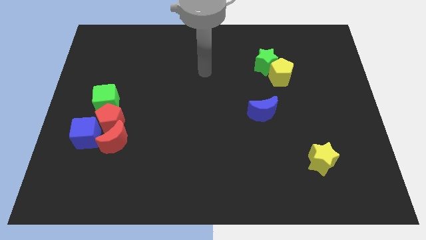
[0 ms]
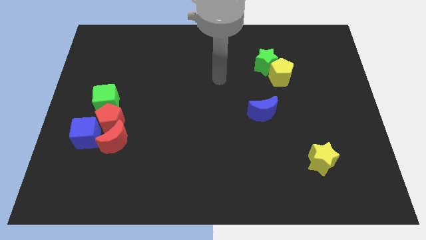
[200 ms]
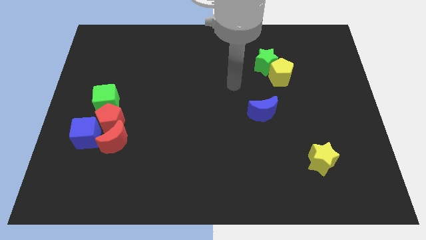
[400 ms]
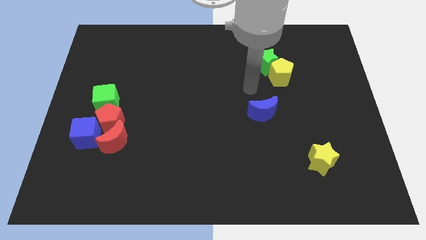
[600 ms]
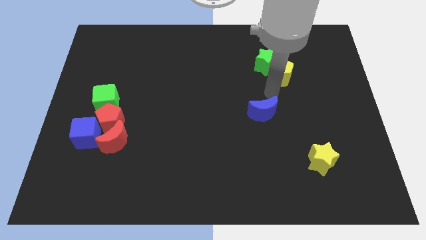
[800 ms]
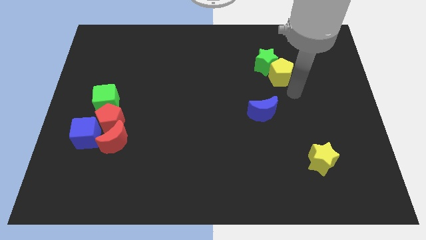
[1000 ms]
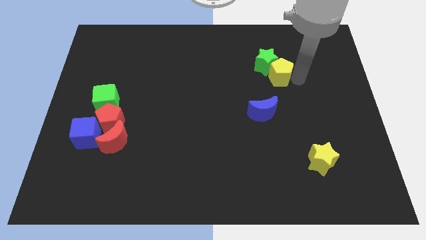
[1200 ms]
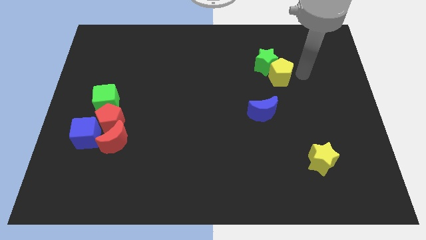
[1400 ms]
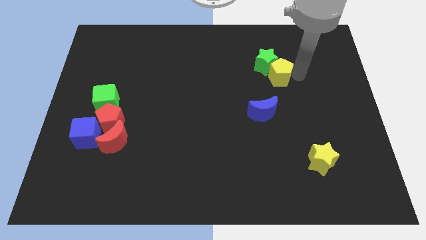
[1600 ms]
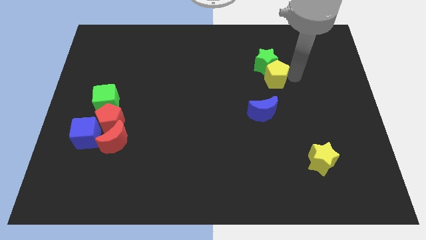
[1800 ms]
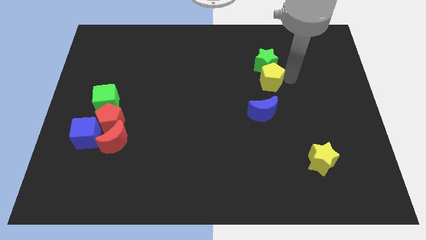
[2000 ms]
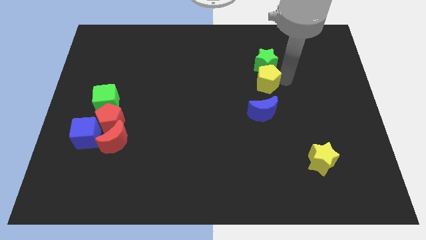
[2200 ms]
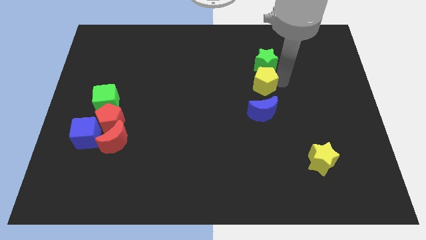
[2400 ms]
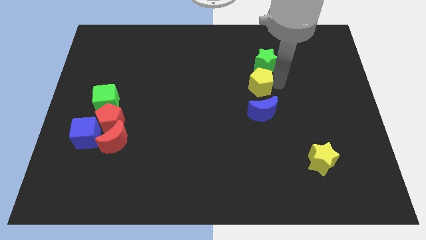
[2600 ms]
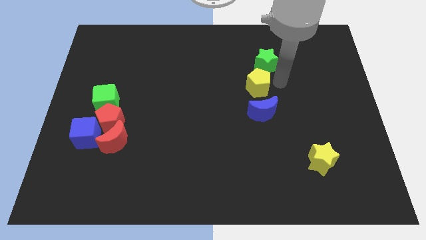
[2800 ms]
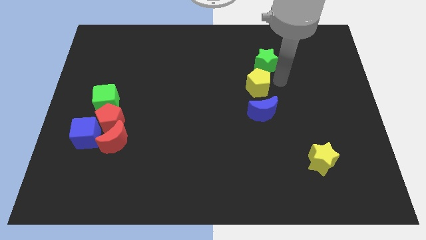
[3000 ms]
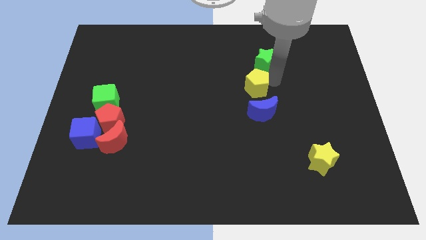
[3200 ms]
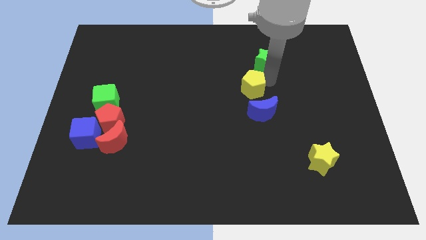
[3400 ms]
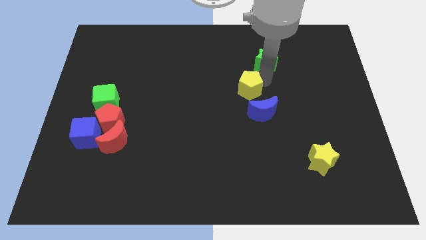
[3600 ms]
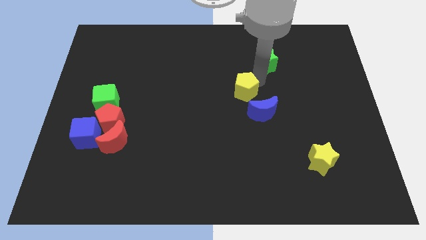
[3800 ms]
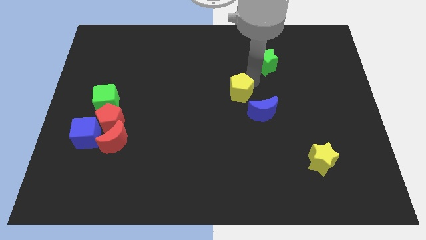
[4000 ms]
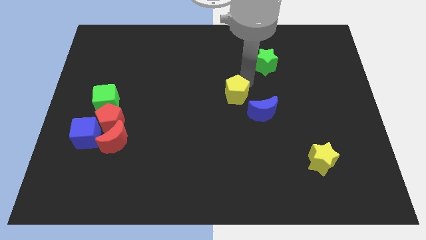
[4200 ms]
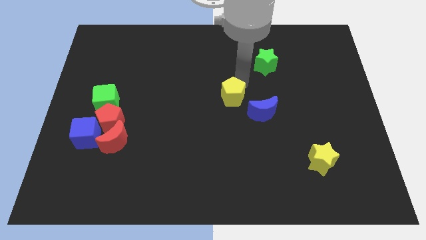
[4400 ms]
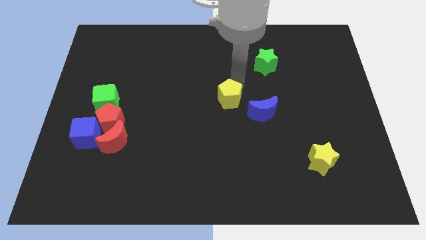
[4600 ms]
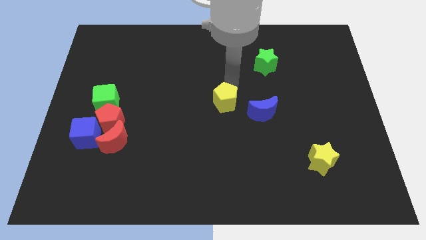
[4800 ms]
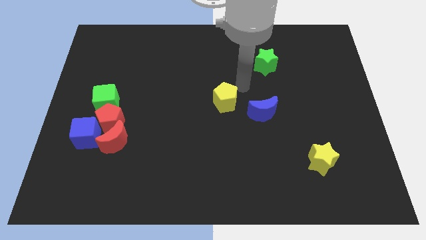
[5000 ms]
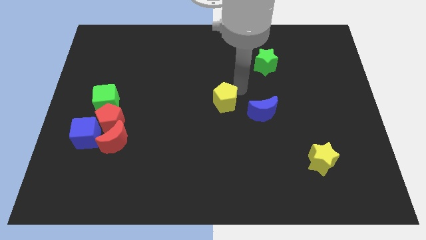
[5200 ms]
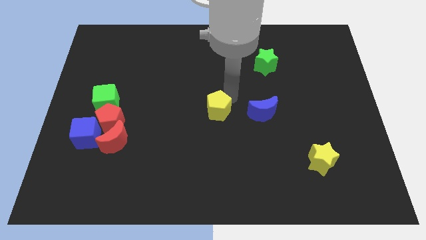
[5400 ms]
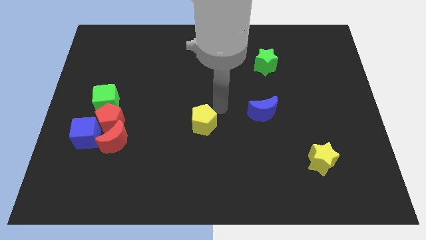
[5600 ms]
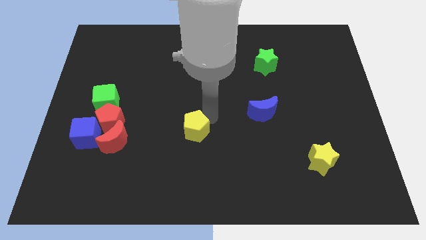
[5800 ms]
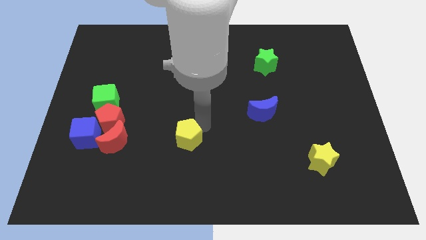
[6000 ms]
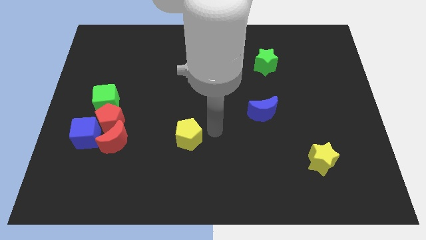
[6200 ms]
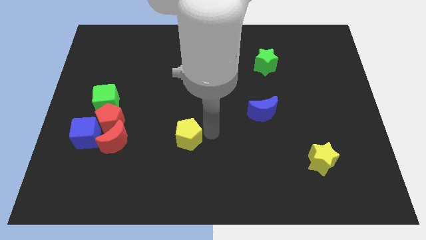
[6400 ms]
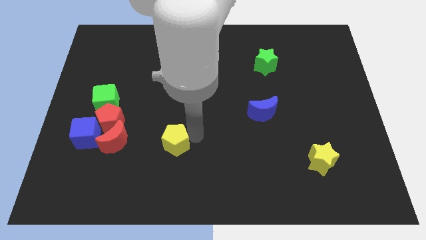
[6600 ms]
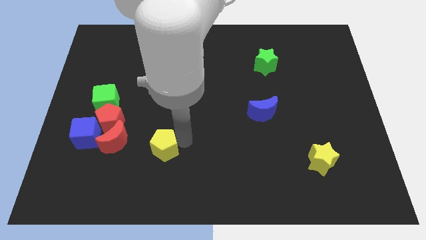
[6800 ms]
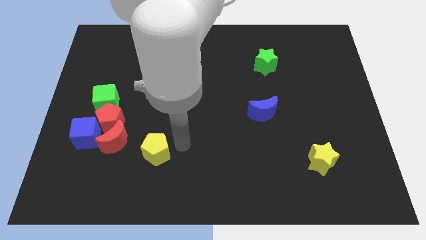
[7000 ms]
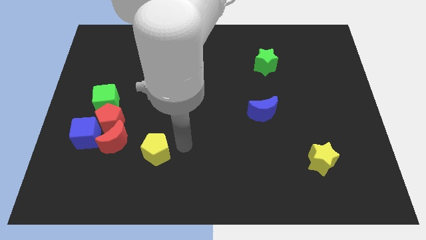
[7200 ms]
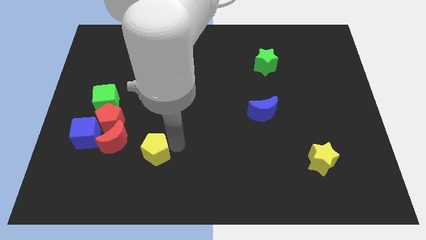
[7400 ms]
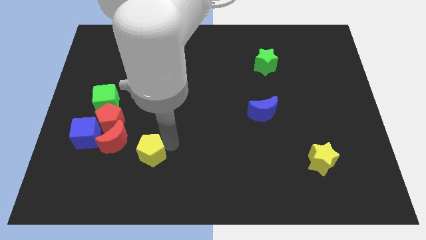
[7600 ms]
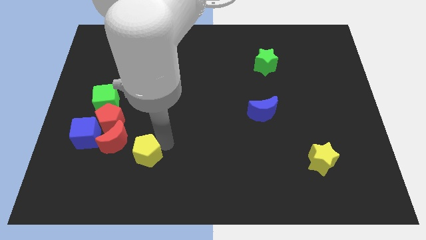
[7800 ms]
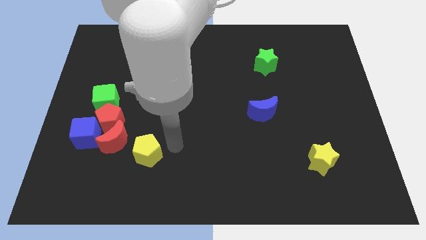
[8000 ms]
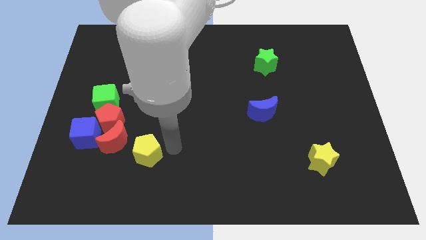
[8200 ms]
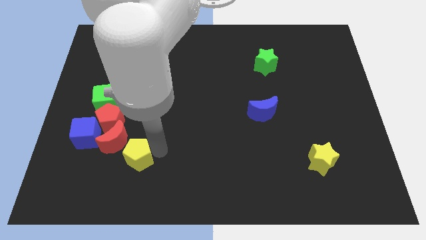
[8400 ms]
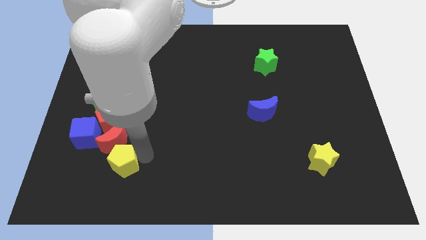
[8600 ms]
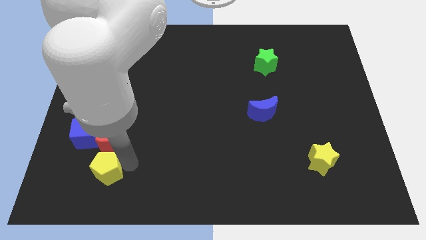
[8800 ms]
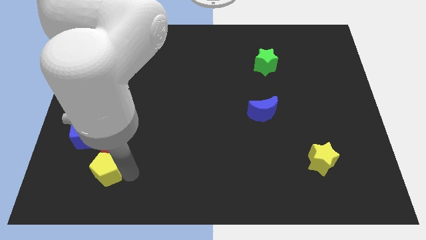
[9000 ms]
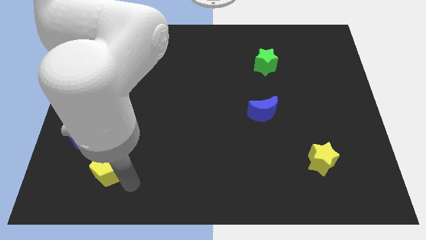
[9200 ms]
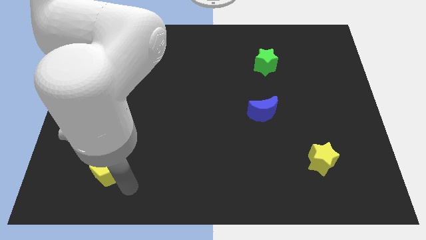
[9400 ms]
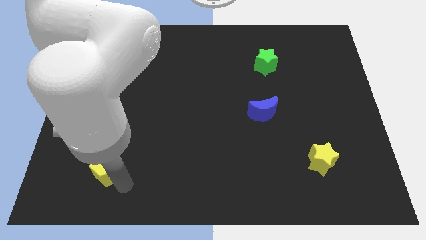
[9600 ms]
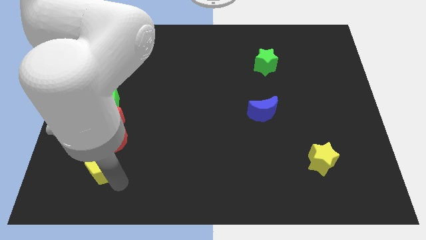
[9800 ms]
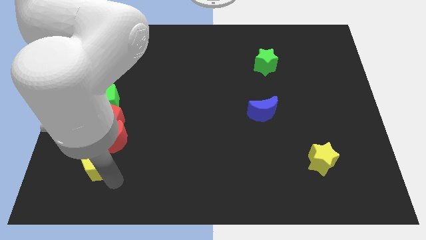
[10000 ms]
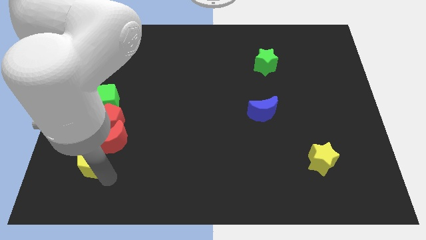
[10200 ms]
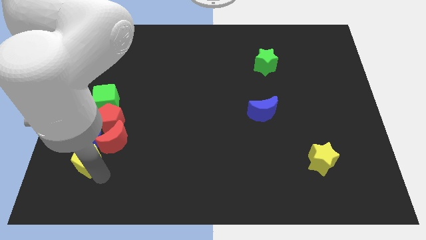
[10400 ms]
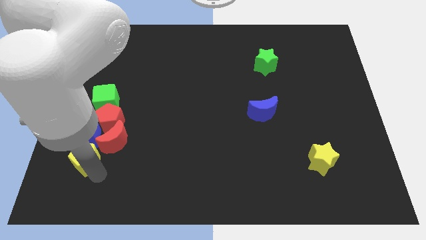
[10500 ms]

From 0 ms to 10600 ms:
push the yellow pentagon to the bottom left side of the red pentagon

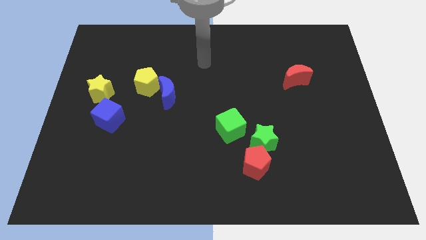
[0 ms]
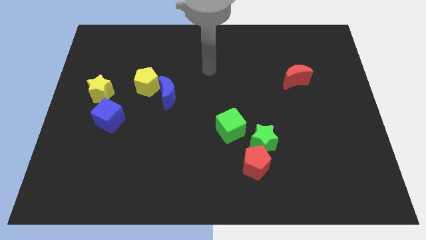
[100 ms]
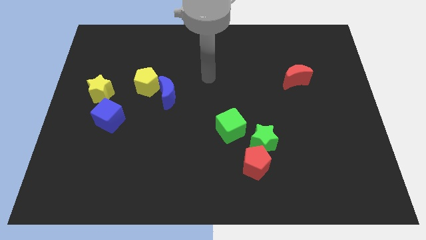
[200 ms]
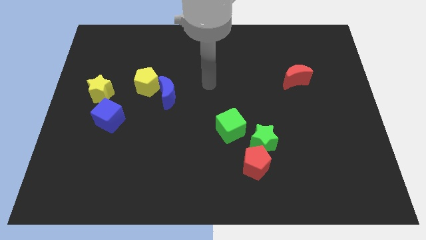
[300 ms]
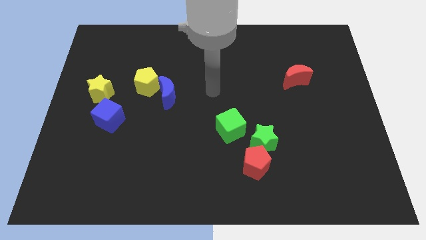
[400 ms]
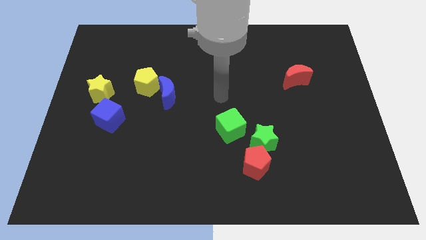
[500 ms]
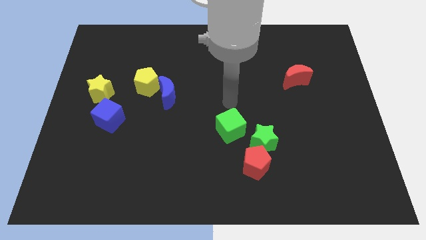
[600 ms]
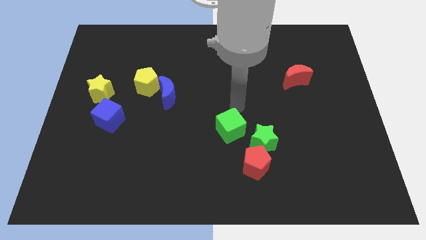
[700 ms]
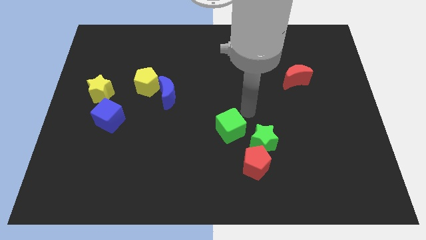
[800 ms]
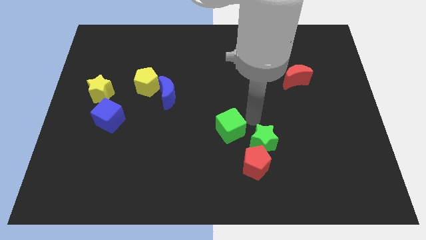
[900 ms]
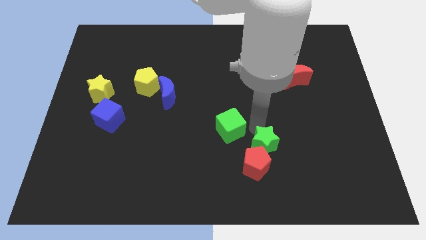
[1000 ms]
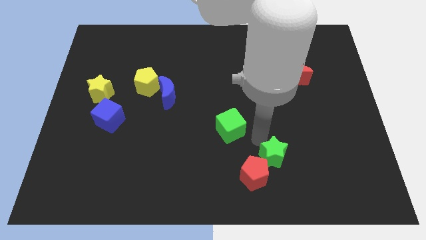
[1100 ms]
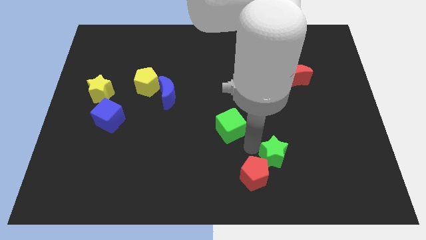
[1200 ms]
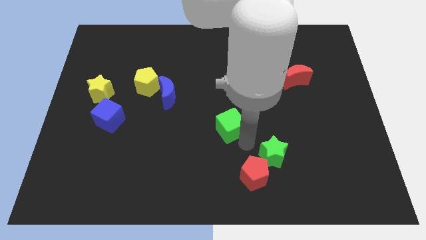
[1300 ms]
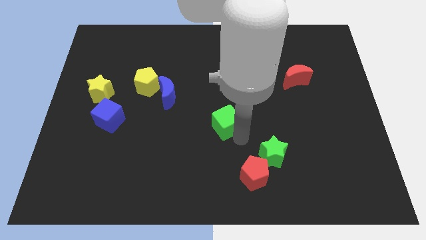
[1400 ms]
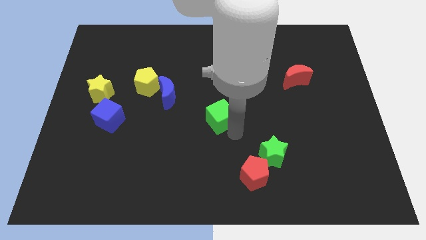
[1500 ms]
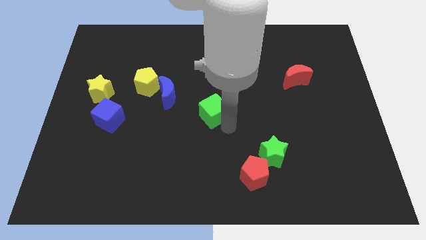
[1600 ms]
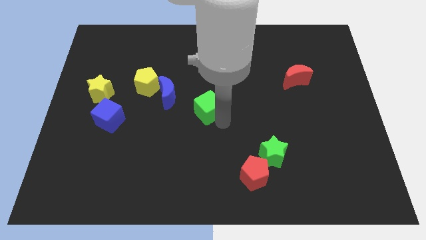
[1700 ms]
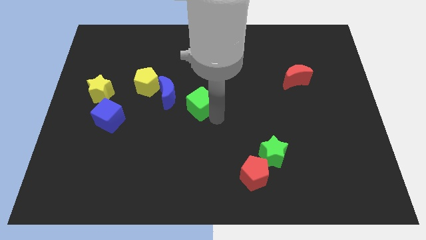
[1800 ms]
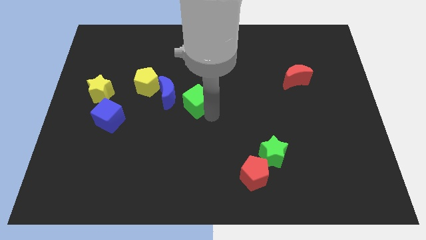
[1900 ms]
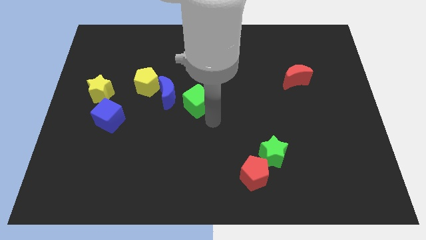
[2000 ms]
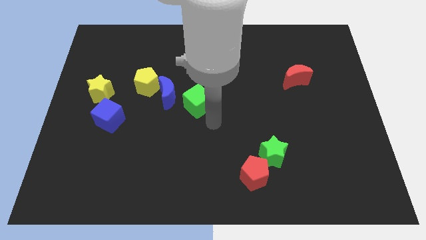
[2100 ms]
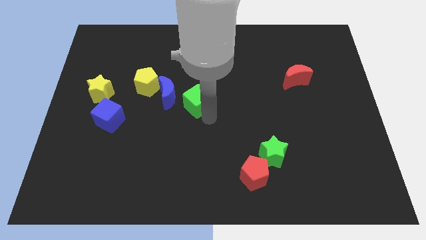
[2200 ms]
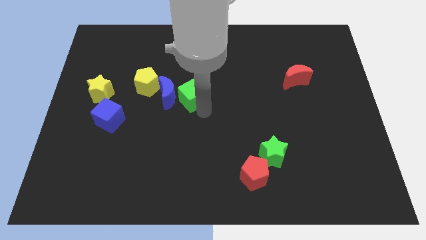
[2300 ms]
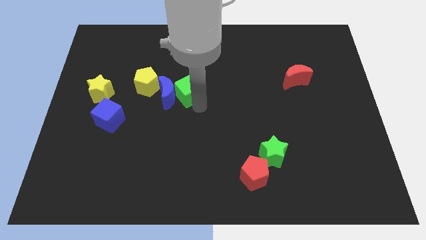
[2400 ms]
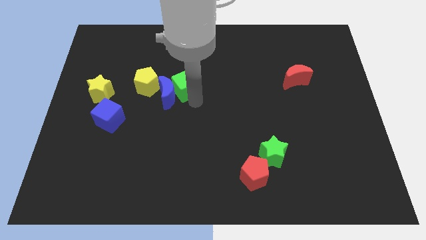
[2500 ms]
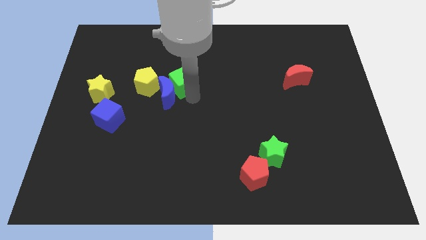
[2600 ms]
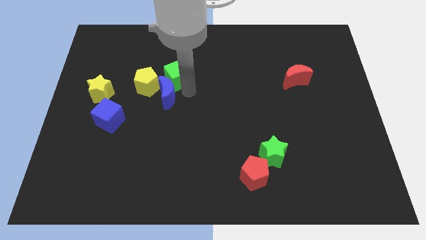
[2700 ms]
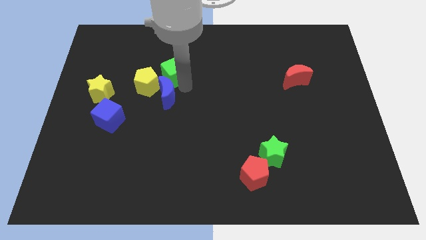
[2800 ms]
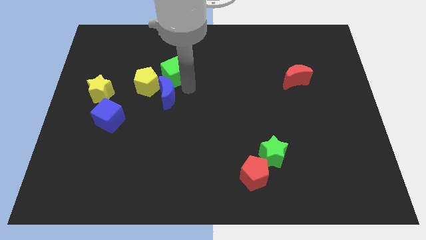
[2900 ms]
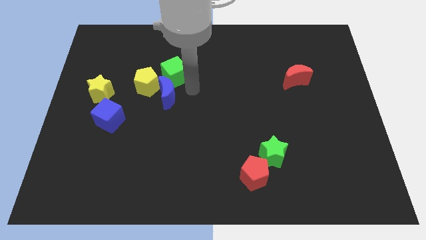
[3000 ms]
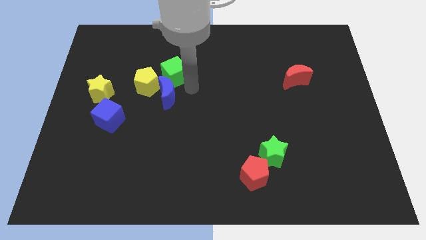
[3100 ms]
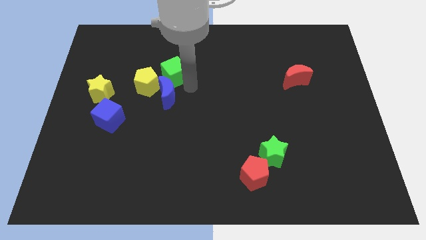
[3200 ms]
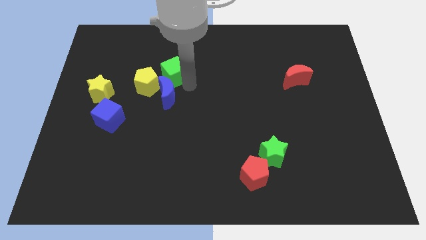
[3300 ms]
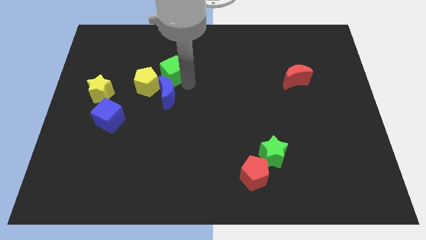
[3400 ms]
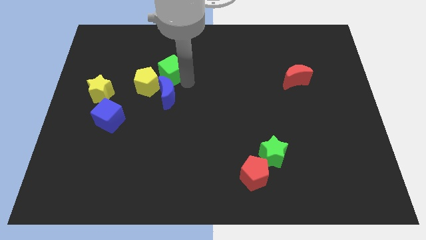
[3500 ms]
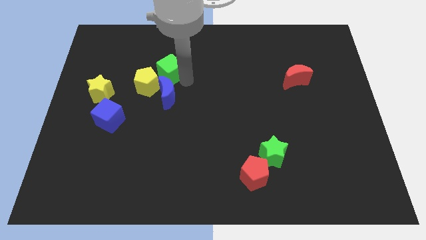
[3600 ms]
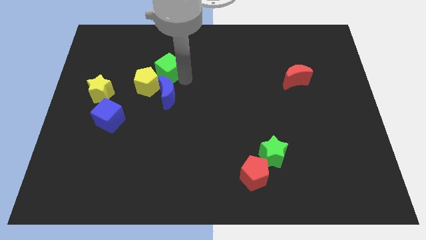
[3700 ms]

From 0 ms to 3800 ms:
put the green cube above the yellow pentagon
